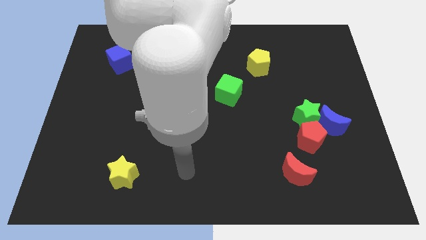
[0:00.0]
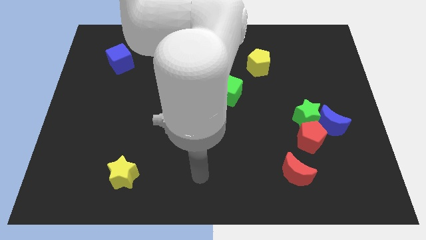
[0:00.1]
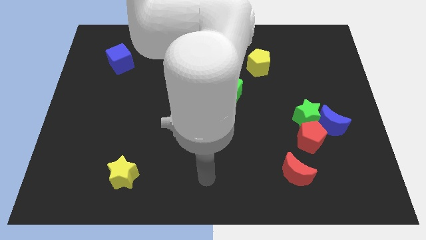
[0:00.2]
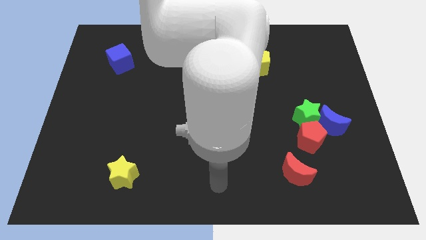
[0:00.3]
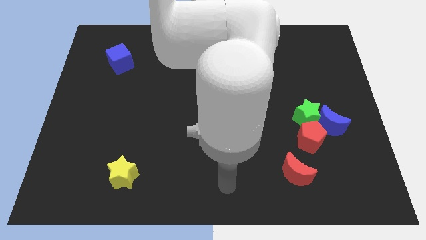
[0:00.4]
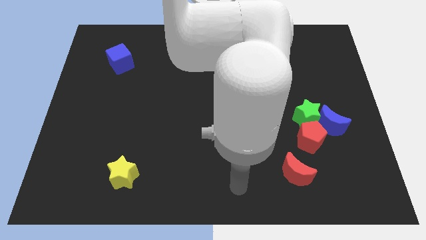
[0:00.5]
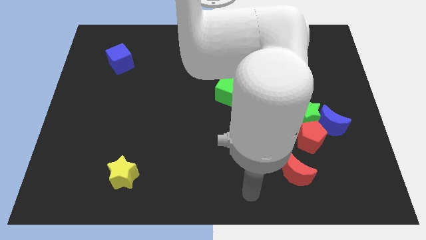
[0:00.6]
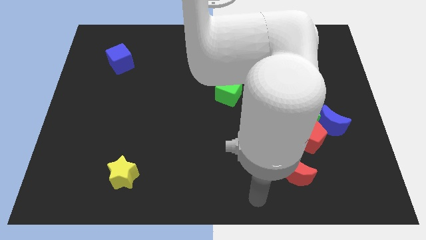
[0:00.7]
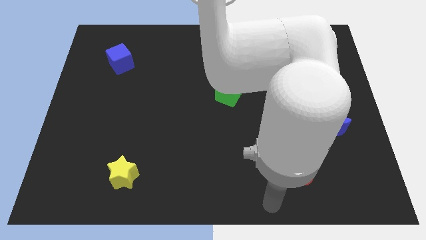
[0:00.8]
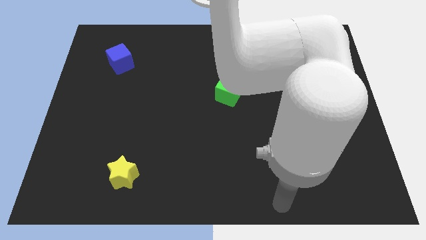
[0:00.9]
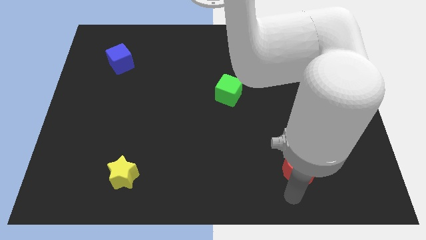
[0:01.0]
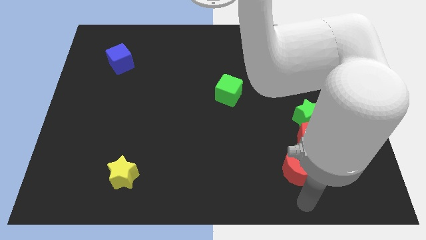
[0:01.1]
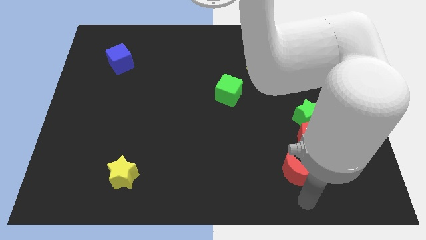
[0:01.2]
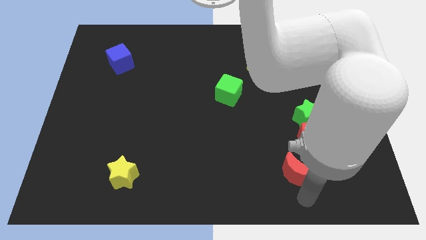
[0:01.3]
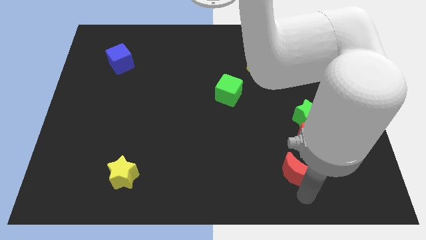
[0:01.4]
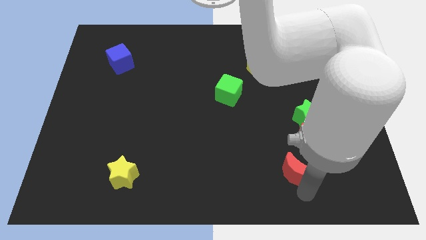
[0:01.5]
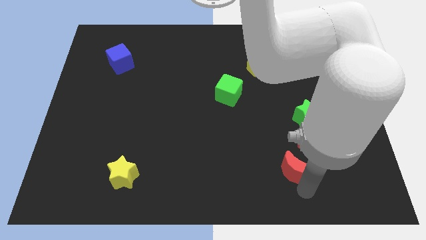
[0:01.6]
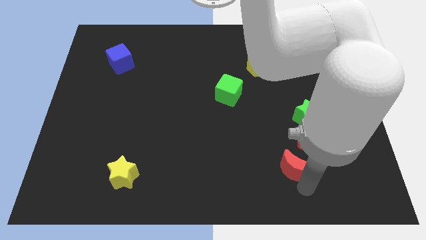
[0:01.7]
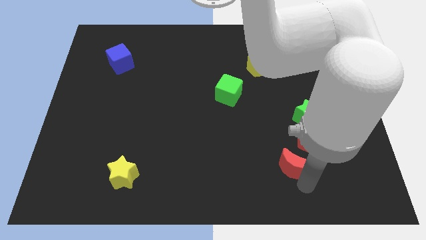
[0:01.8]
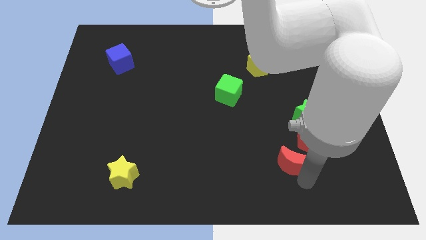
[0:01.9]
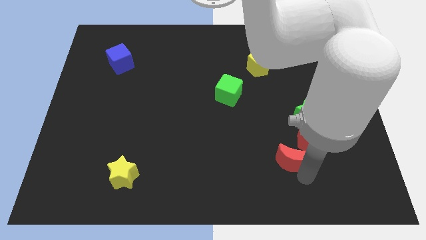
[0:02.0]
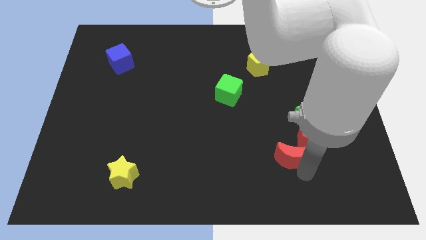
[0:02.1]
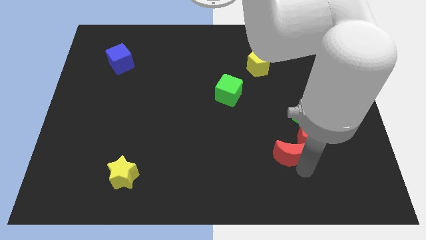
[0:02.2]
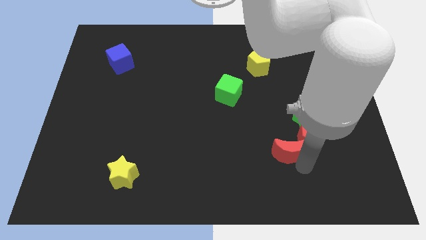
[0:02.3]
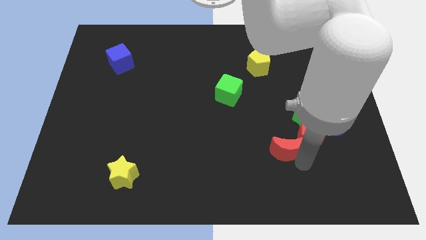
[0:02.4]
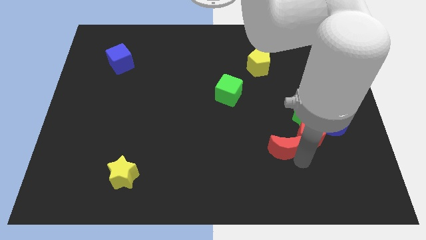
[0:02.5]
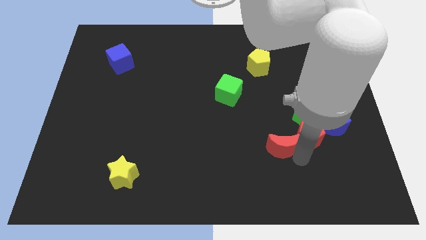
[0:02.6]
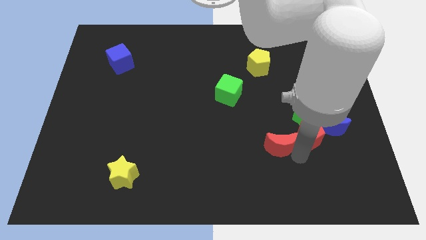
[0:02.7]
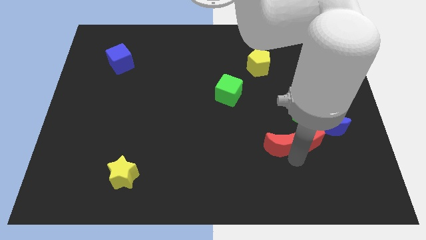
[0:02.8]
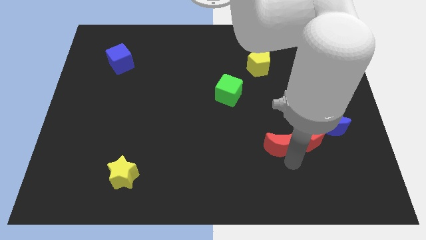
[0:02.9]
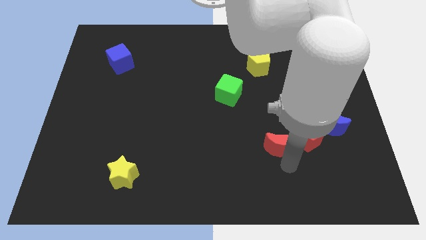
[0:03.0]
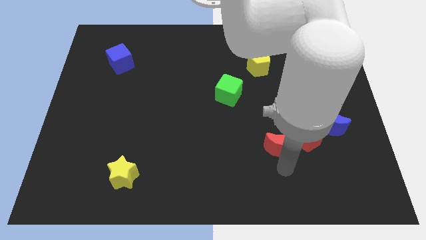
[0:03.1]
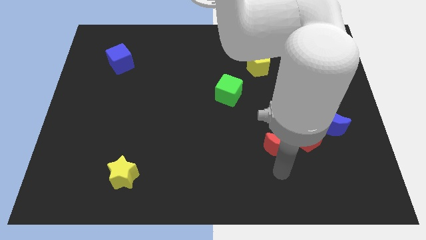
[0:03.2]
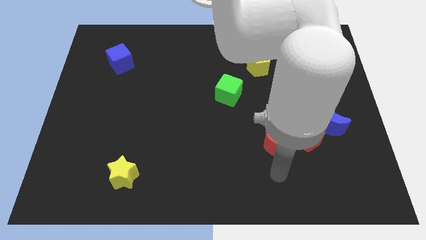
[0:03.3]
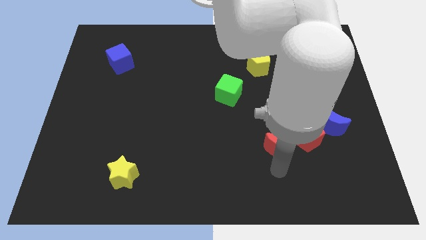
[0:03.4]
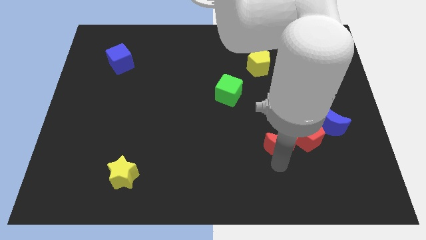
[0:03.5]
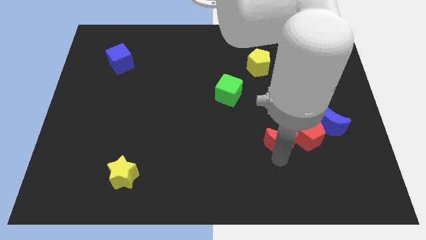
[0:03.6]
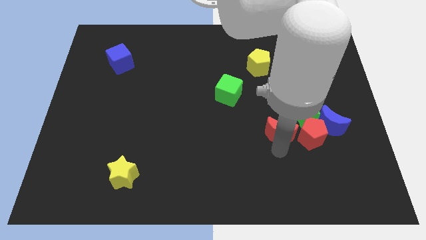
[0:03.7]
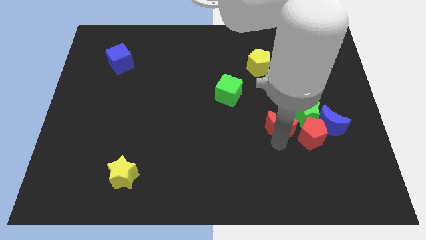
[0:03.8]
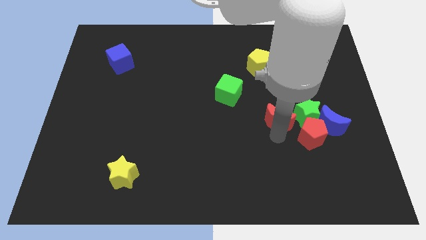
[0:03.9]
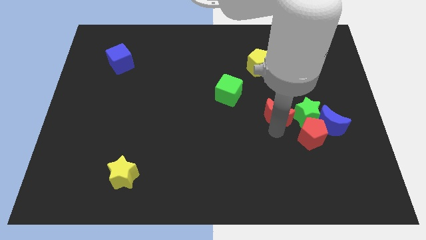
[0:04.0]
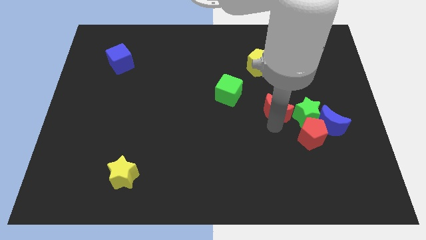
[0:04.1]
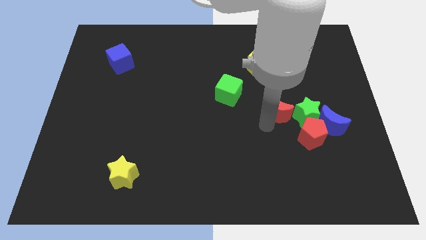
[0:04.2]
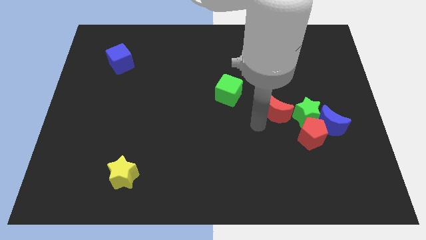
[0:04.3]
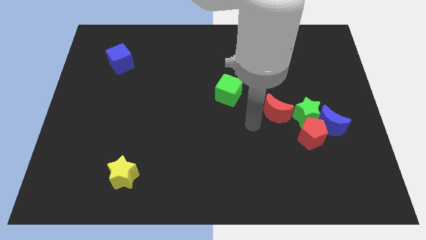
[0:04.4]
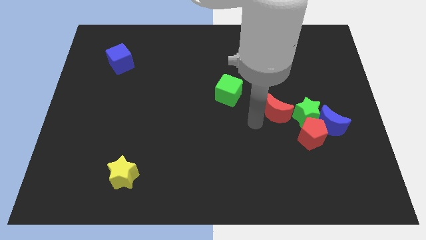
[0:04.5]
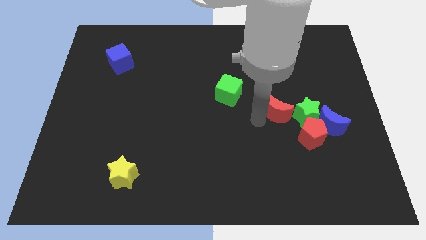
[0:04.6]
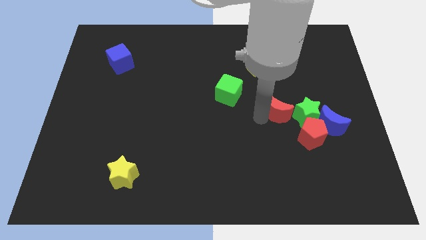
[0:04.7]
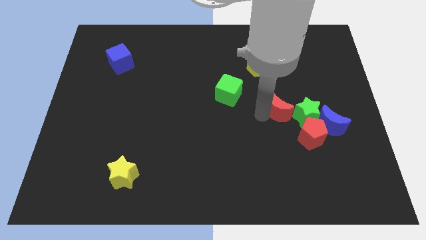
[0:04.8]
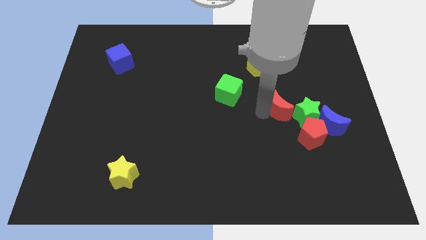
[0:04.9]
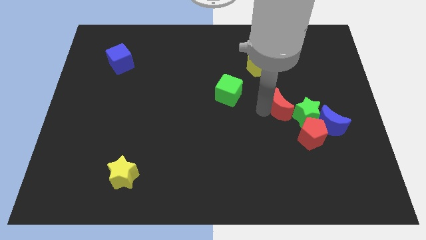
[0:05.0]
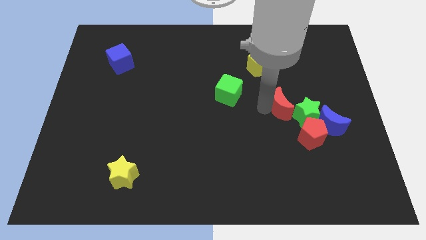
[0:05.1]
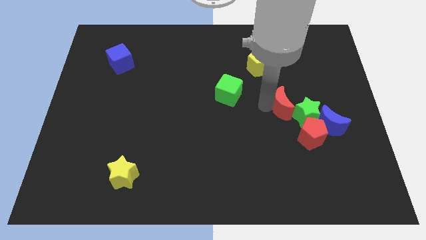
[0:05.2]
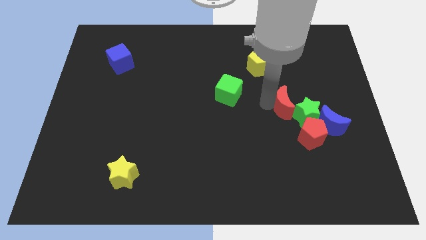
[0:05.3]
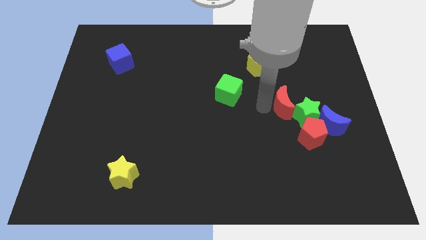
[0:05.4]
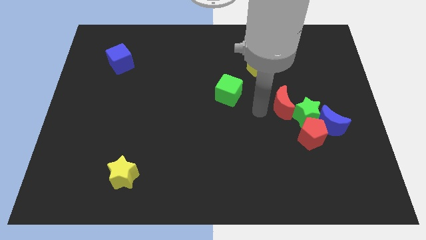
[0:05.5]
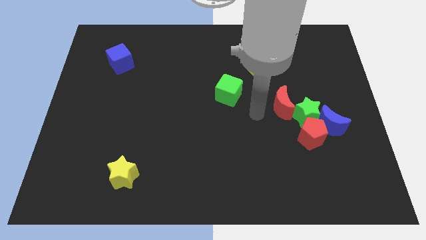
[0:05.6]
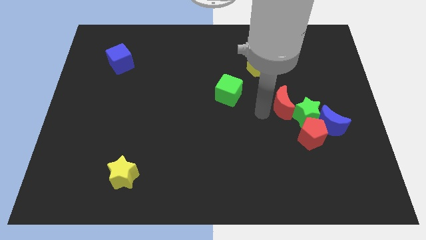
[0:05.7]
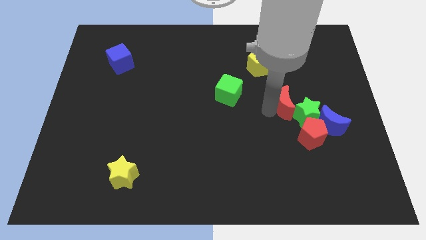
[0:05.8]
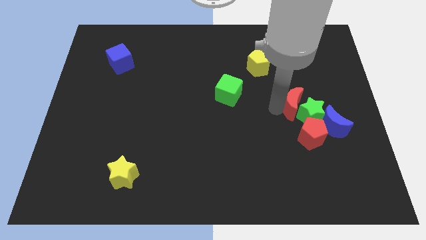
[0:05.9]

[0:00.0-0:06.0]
slide the red moon above the red pentagon
